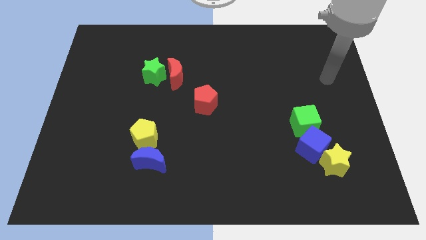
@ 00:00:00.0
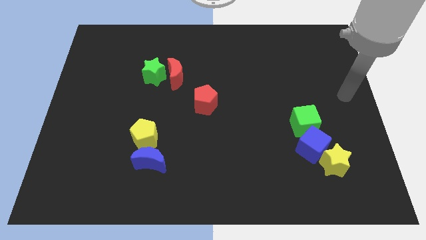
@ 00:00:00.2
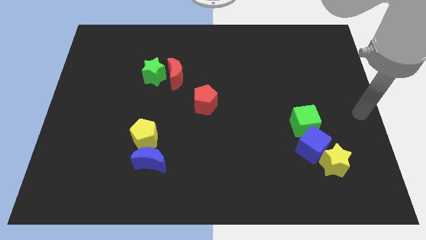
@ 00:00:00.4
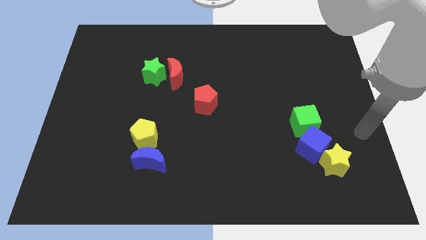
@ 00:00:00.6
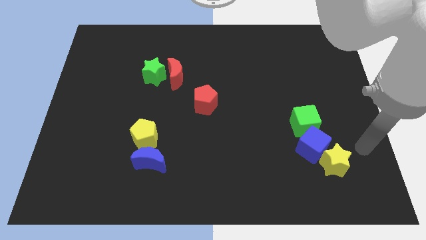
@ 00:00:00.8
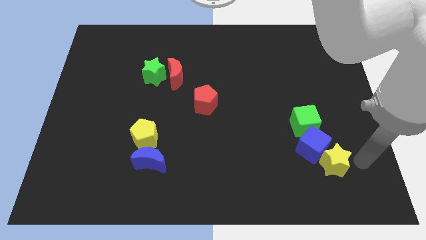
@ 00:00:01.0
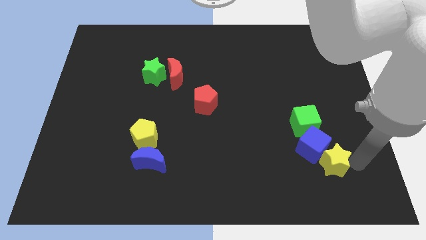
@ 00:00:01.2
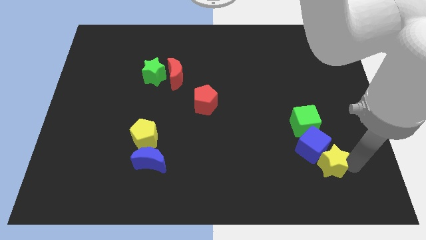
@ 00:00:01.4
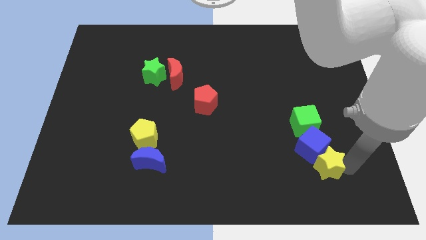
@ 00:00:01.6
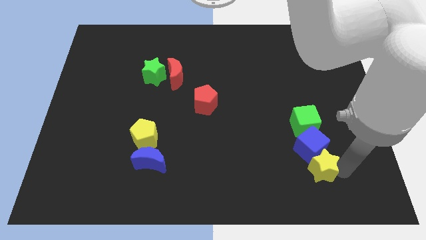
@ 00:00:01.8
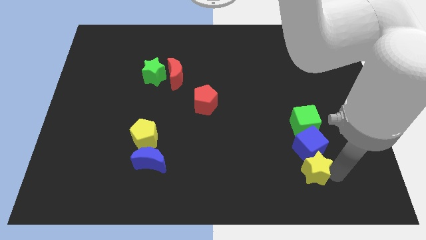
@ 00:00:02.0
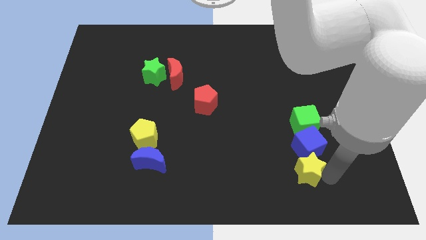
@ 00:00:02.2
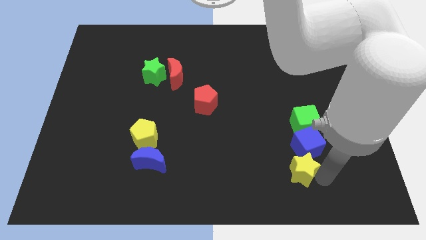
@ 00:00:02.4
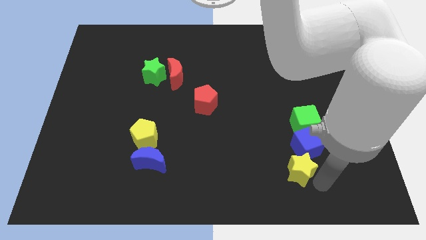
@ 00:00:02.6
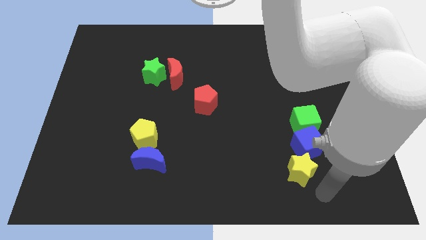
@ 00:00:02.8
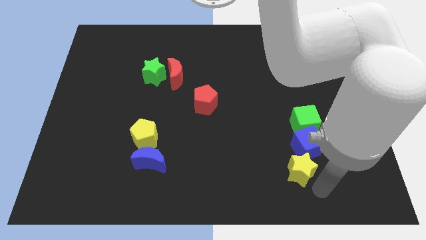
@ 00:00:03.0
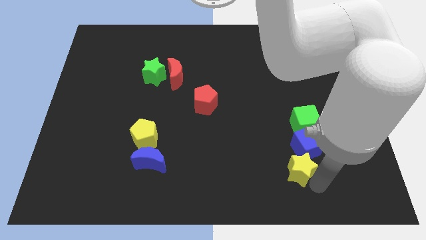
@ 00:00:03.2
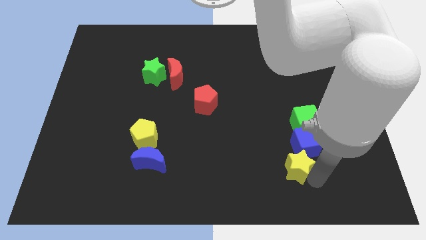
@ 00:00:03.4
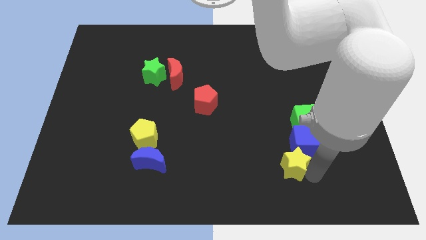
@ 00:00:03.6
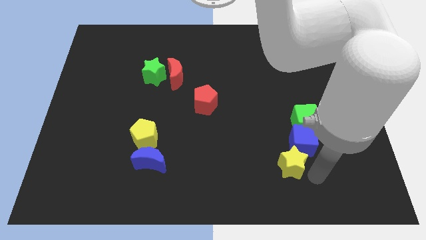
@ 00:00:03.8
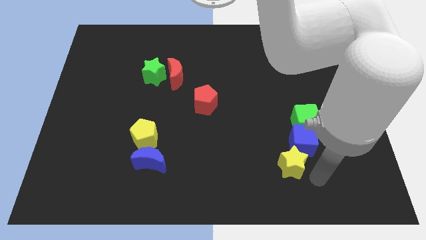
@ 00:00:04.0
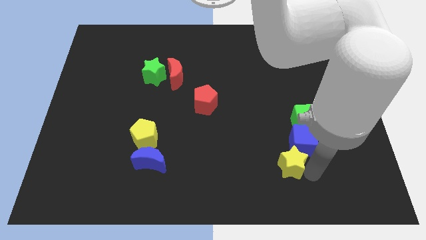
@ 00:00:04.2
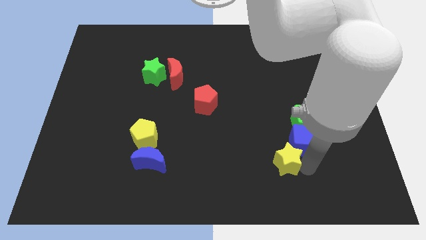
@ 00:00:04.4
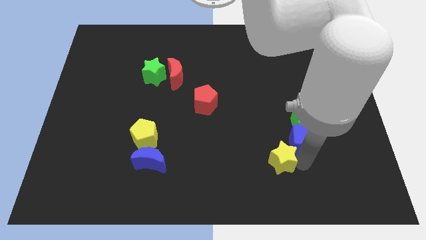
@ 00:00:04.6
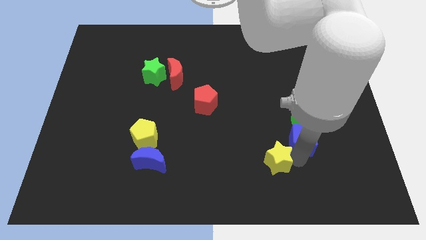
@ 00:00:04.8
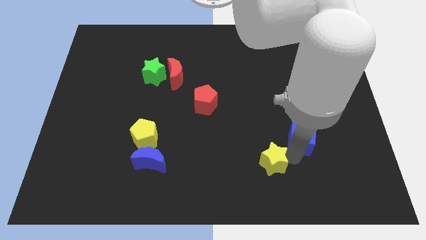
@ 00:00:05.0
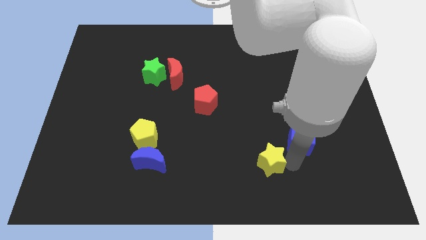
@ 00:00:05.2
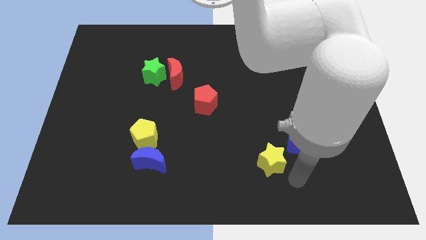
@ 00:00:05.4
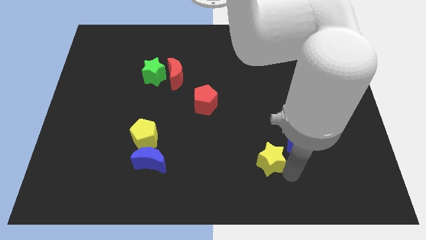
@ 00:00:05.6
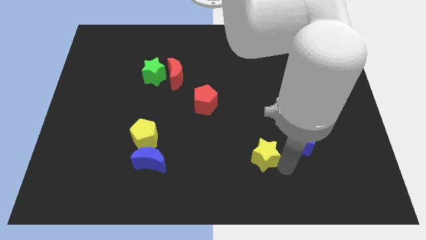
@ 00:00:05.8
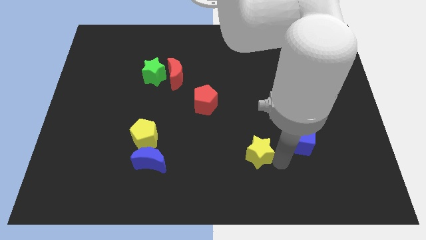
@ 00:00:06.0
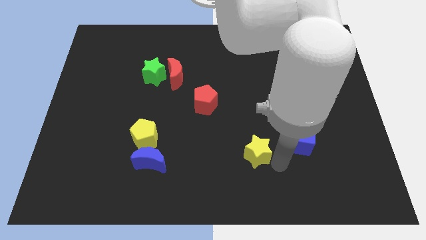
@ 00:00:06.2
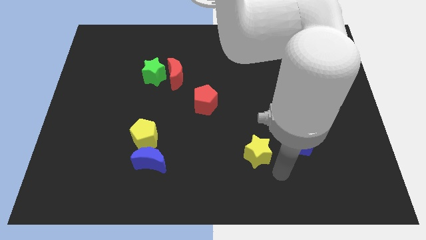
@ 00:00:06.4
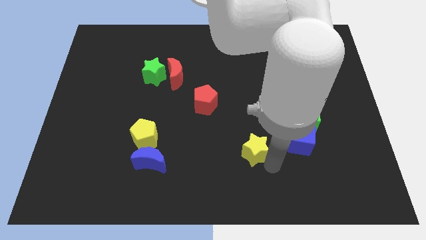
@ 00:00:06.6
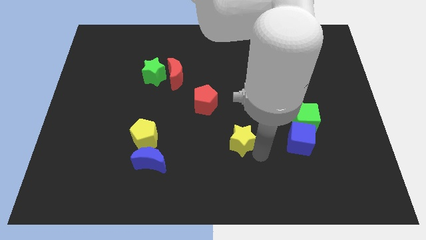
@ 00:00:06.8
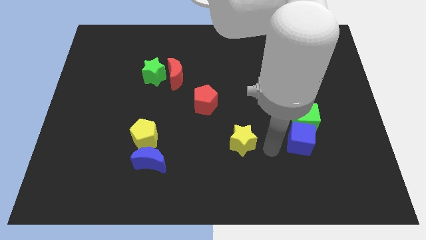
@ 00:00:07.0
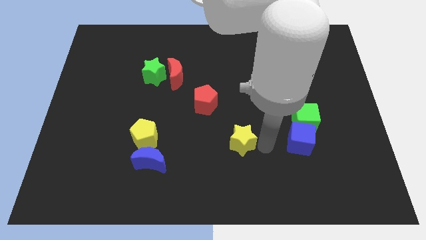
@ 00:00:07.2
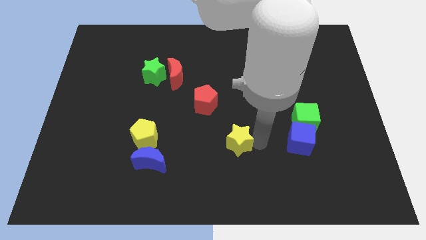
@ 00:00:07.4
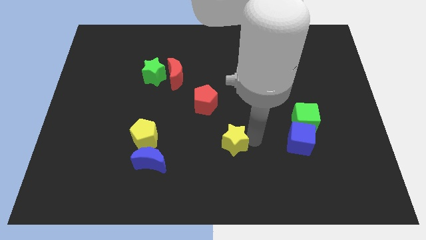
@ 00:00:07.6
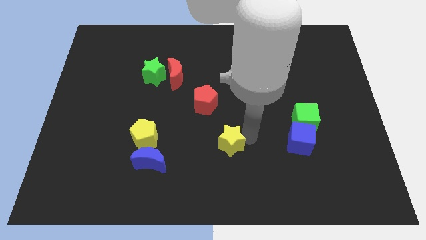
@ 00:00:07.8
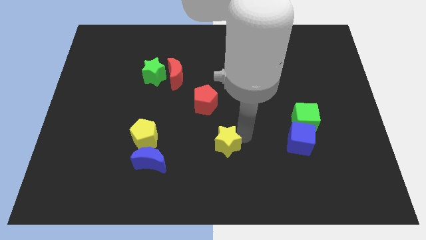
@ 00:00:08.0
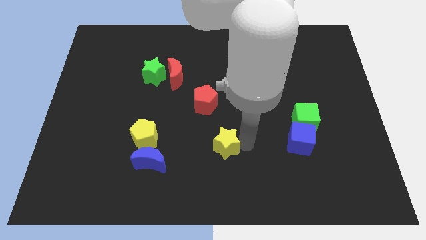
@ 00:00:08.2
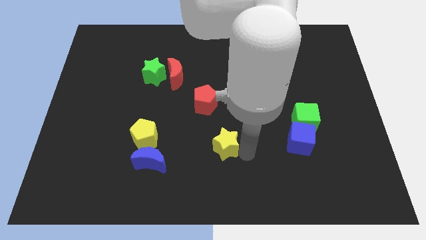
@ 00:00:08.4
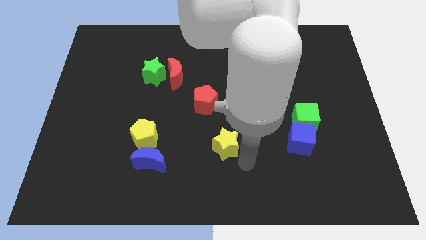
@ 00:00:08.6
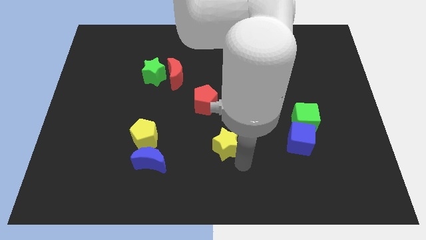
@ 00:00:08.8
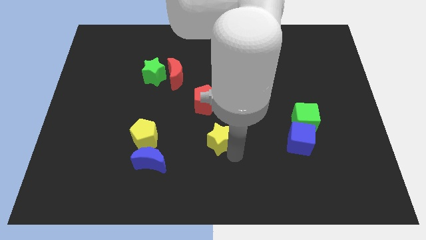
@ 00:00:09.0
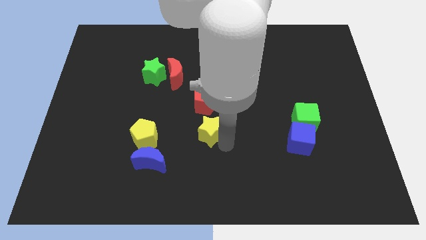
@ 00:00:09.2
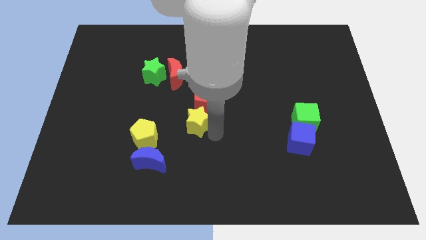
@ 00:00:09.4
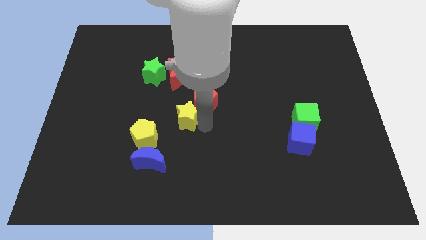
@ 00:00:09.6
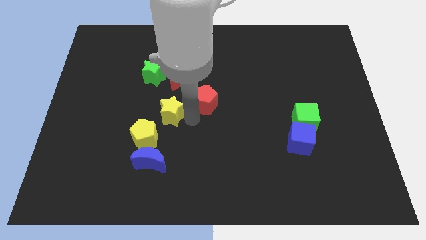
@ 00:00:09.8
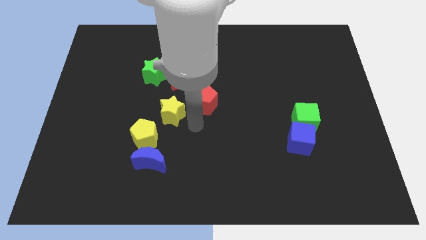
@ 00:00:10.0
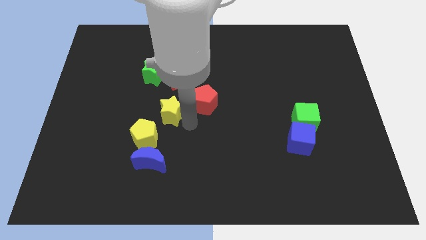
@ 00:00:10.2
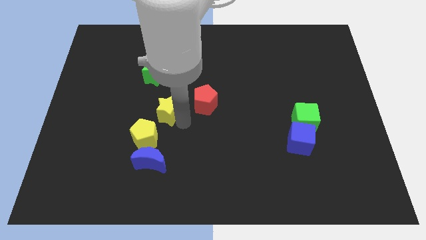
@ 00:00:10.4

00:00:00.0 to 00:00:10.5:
slide the yellow star to the top side of the yellow pentagon
